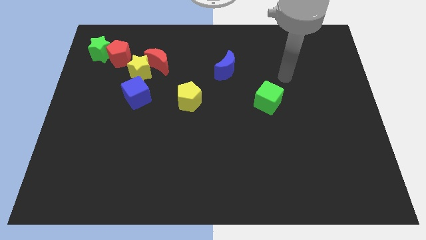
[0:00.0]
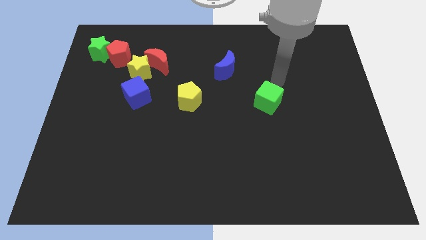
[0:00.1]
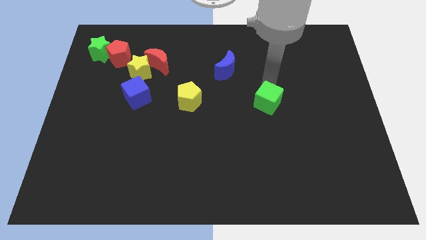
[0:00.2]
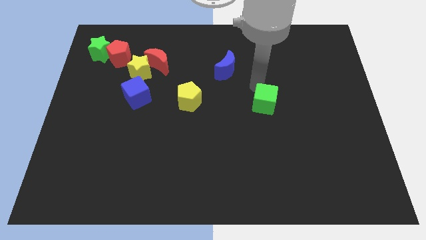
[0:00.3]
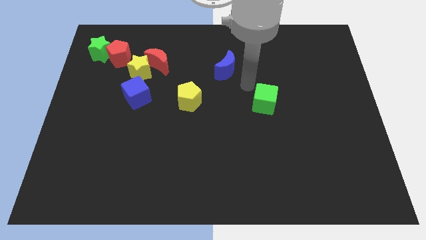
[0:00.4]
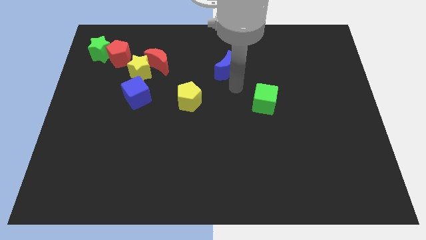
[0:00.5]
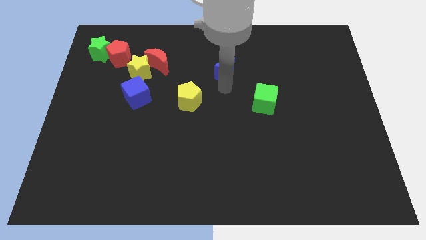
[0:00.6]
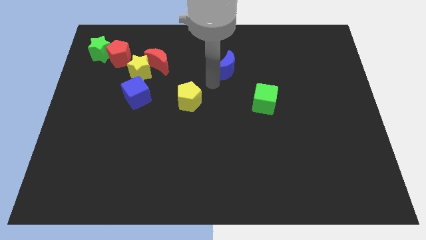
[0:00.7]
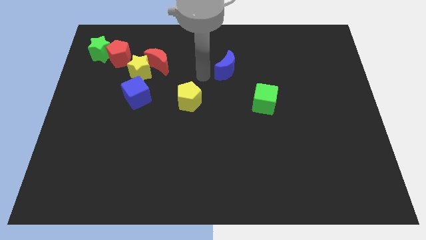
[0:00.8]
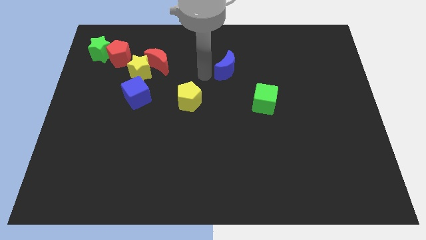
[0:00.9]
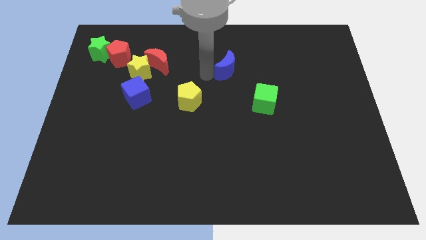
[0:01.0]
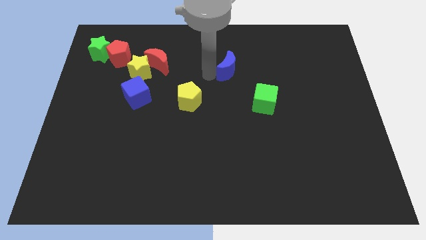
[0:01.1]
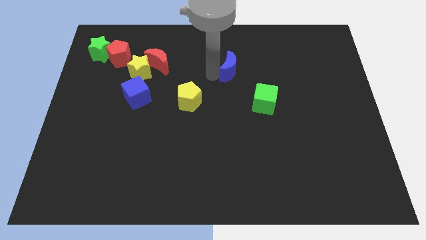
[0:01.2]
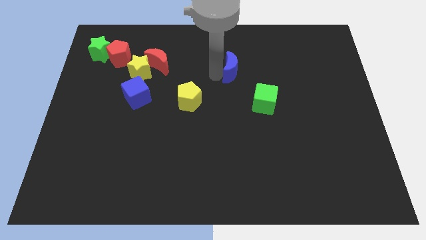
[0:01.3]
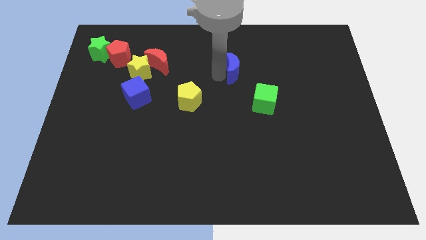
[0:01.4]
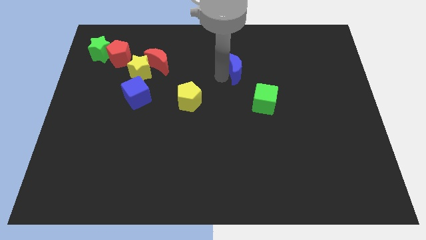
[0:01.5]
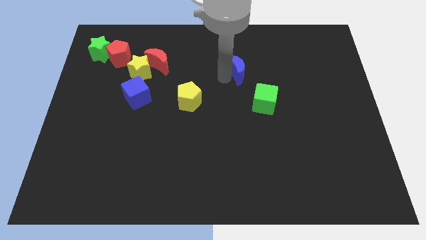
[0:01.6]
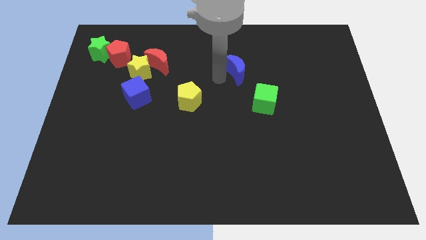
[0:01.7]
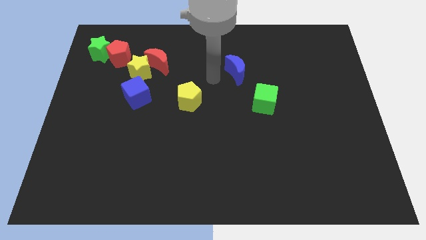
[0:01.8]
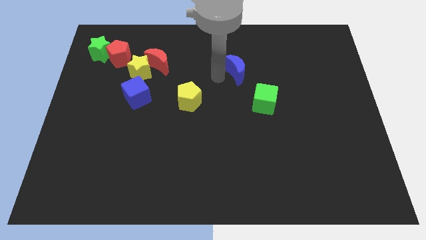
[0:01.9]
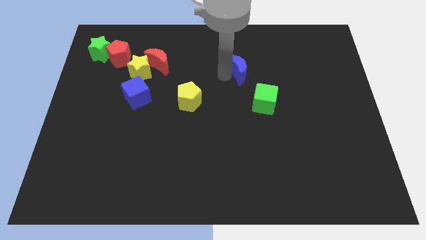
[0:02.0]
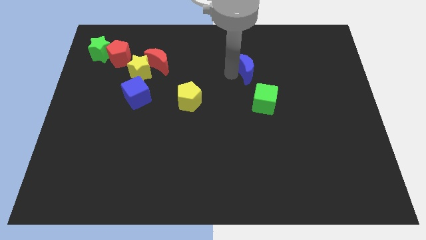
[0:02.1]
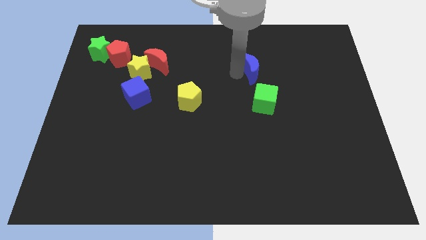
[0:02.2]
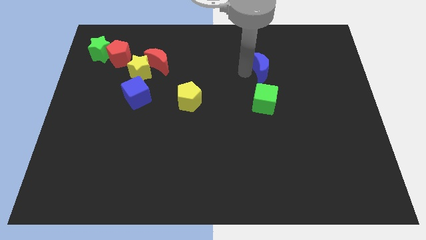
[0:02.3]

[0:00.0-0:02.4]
push the blue moon somewhat right

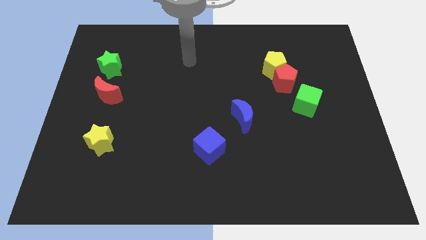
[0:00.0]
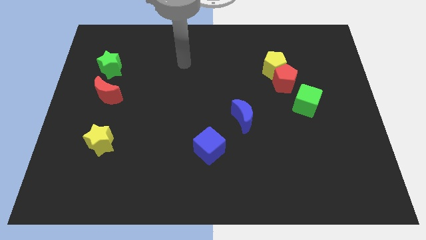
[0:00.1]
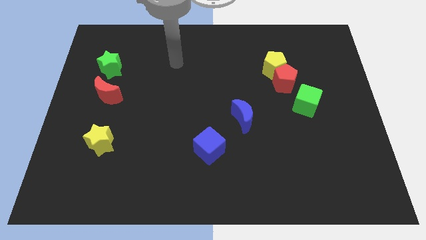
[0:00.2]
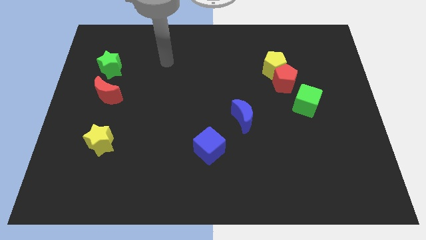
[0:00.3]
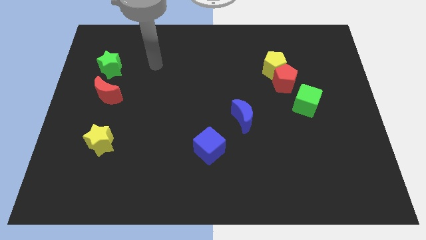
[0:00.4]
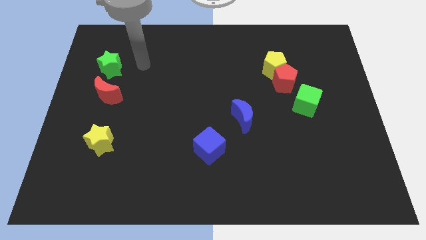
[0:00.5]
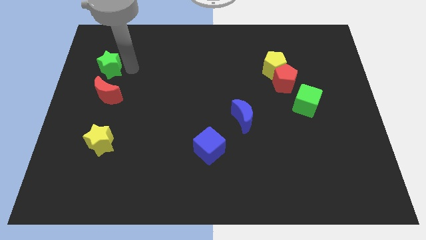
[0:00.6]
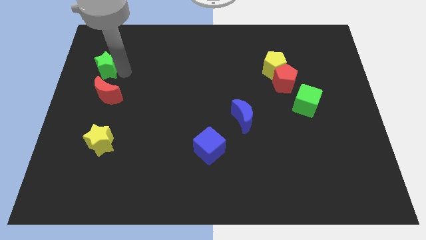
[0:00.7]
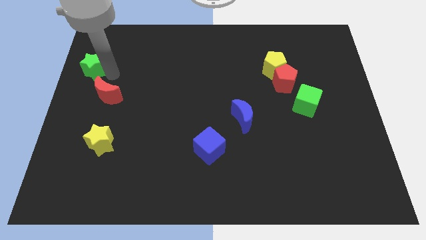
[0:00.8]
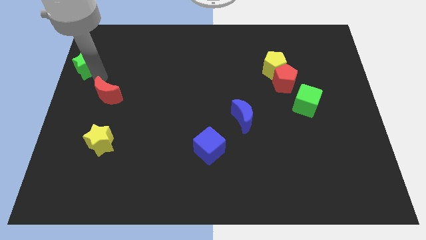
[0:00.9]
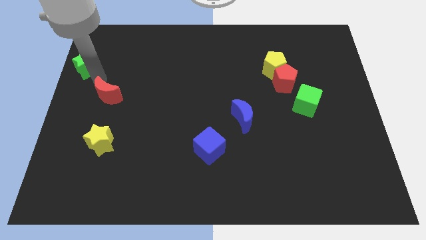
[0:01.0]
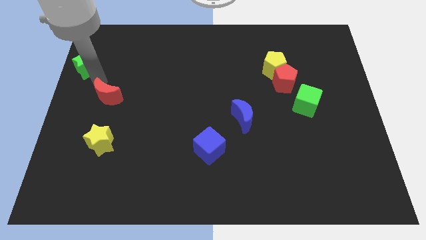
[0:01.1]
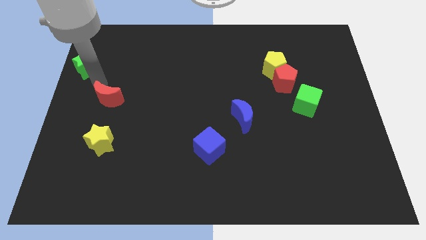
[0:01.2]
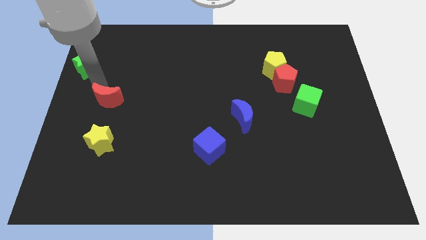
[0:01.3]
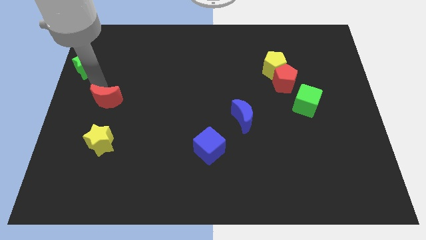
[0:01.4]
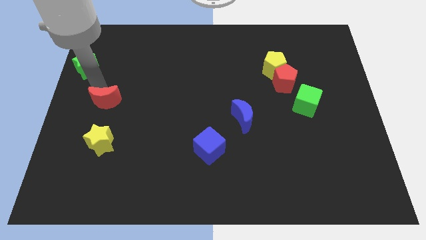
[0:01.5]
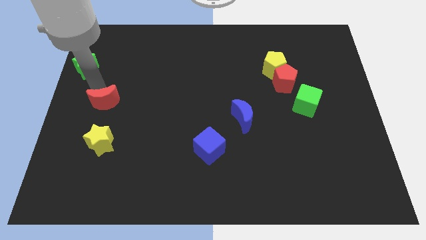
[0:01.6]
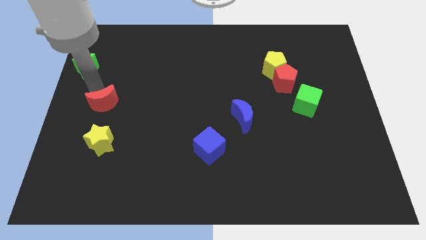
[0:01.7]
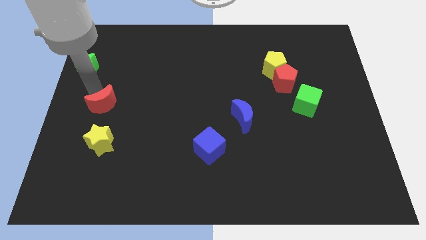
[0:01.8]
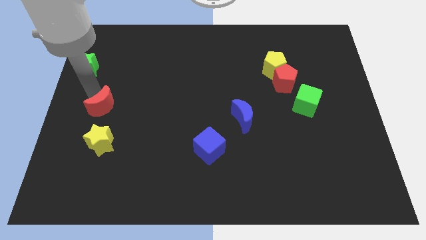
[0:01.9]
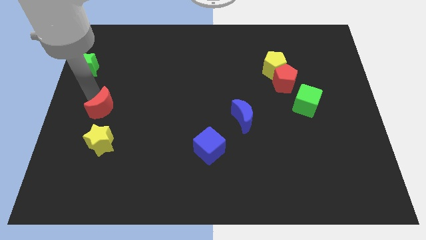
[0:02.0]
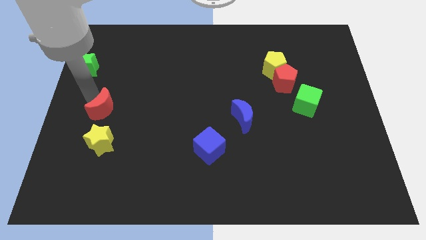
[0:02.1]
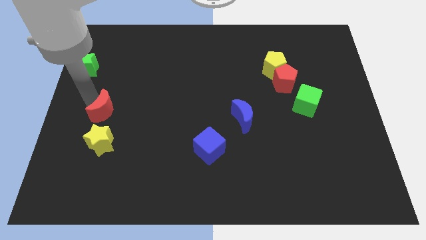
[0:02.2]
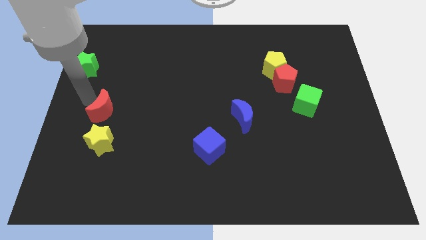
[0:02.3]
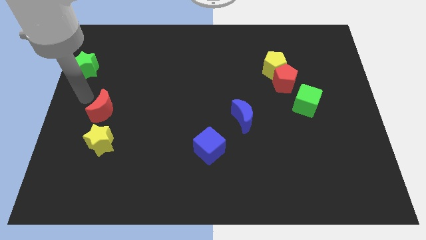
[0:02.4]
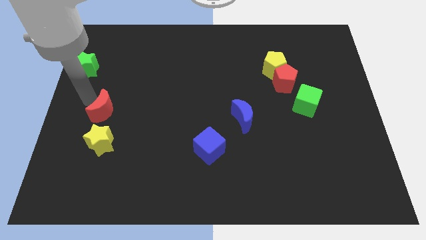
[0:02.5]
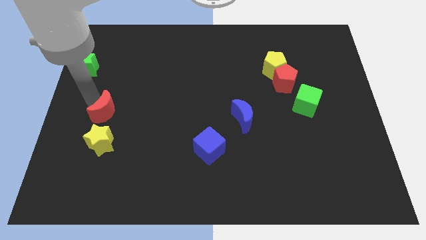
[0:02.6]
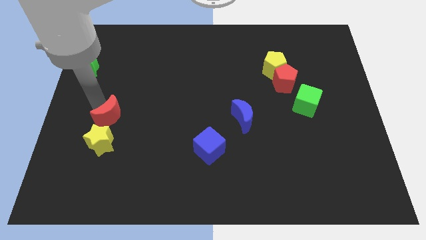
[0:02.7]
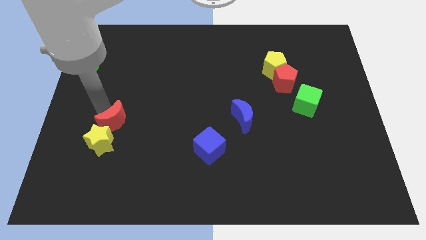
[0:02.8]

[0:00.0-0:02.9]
push the red moon downwards and then right a little bit

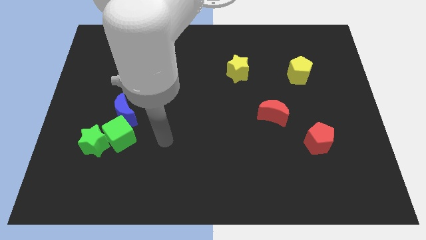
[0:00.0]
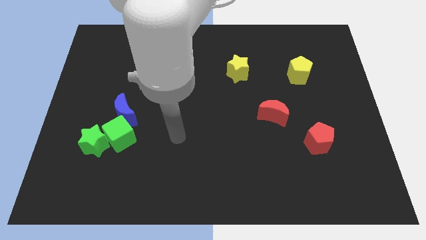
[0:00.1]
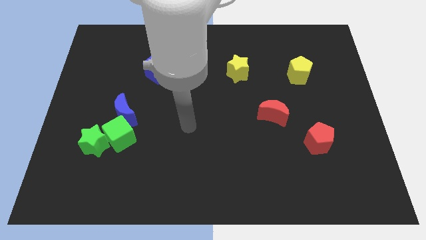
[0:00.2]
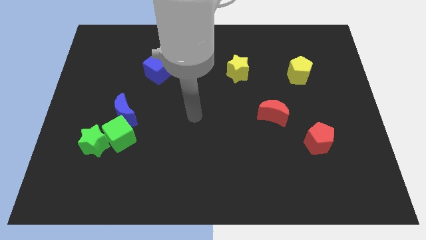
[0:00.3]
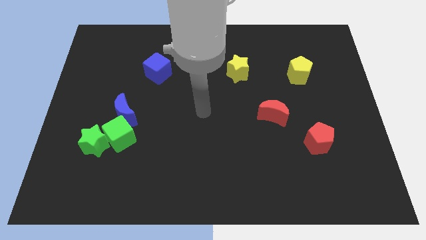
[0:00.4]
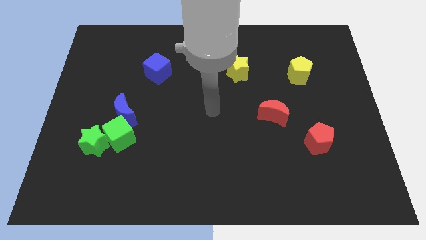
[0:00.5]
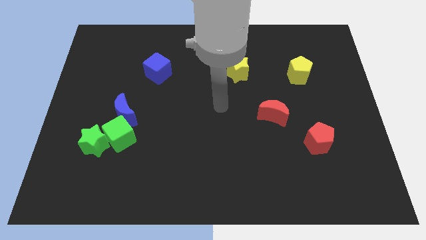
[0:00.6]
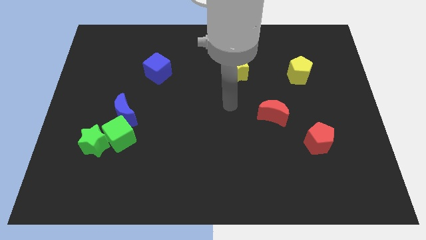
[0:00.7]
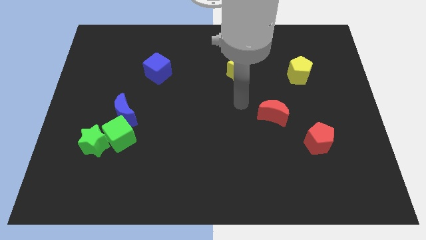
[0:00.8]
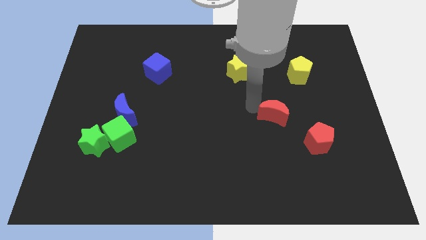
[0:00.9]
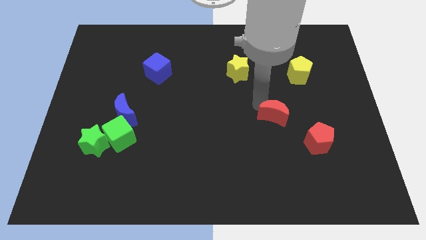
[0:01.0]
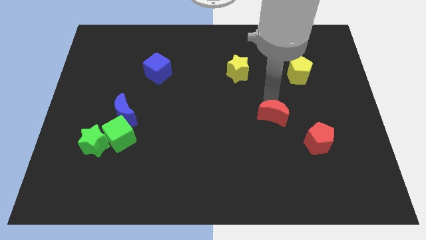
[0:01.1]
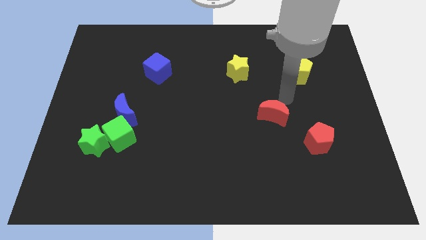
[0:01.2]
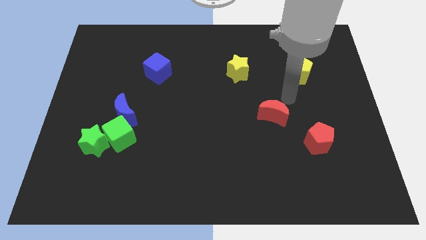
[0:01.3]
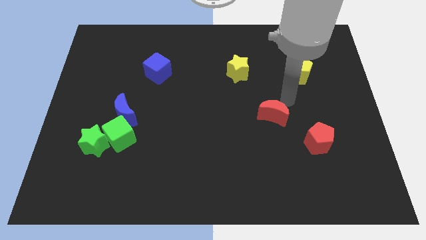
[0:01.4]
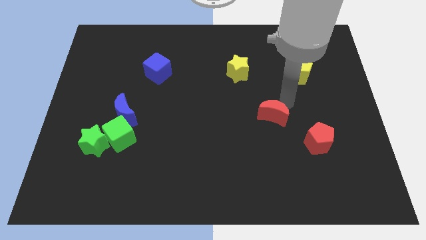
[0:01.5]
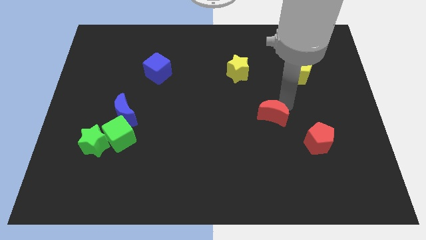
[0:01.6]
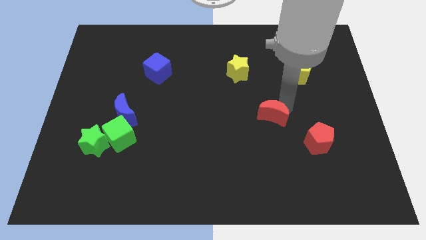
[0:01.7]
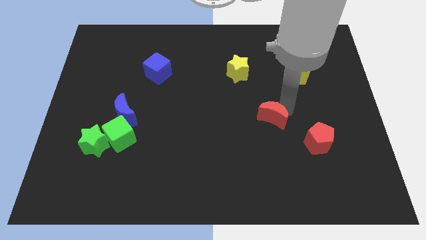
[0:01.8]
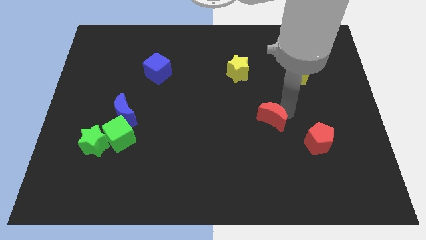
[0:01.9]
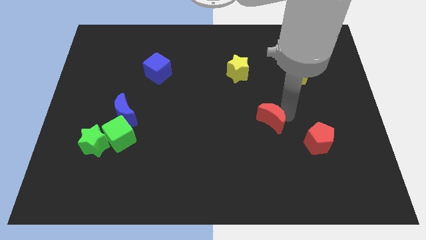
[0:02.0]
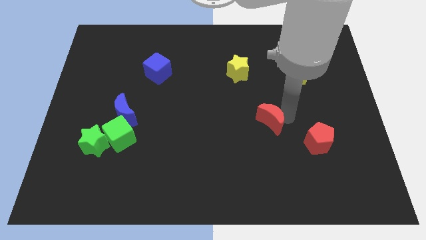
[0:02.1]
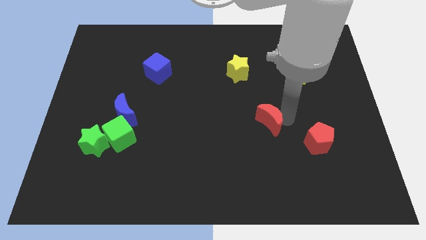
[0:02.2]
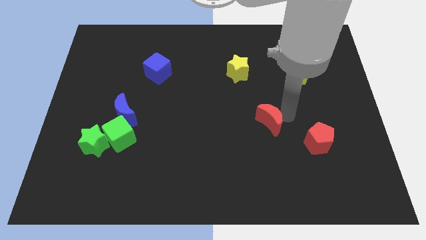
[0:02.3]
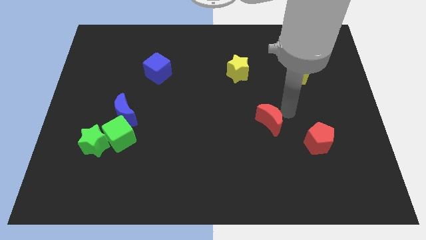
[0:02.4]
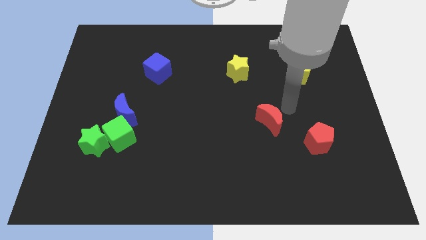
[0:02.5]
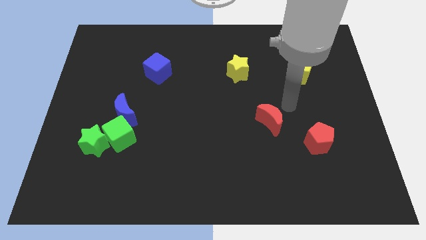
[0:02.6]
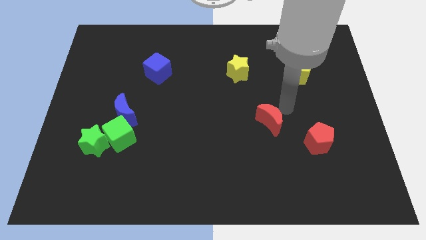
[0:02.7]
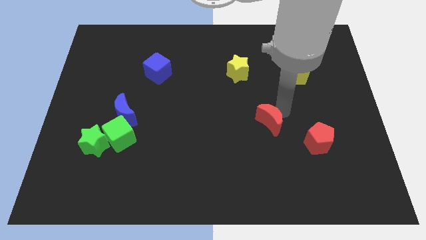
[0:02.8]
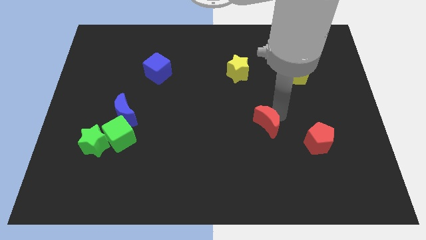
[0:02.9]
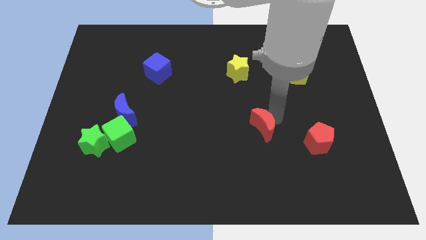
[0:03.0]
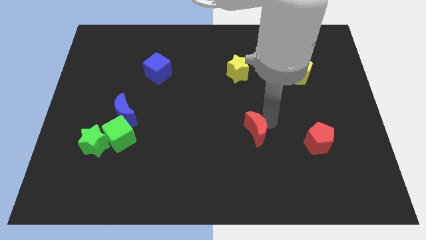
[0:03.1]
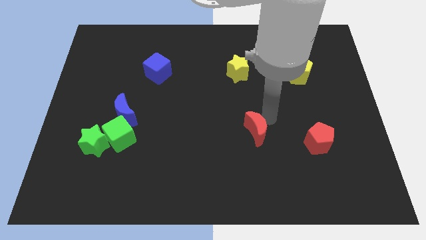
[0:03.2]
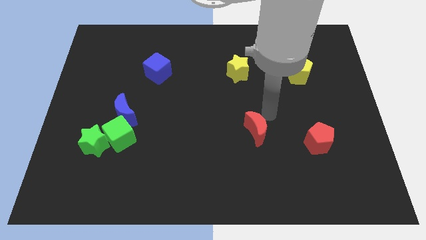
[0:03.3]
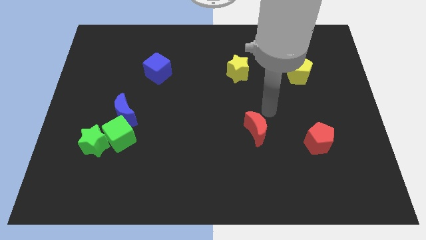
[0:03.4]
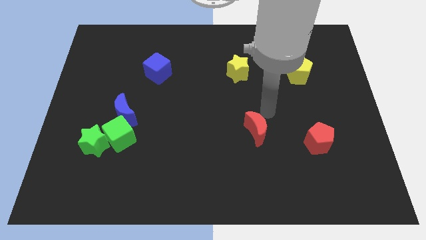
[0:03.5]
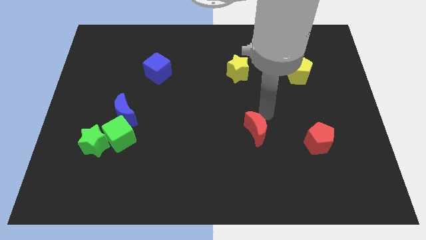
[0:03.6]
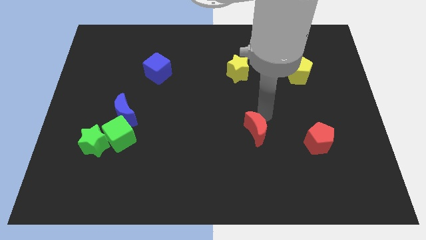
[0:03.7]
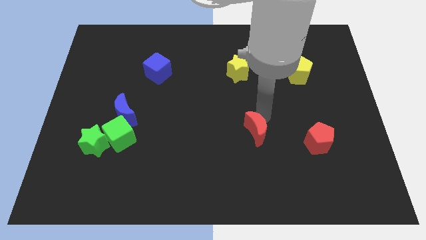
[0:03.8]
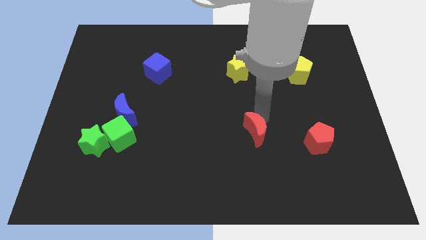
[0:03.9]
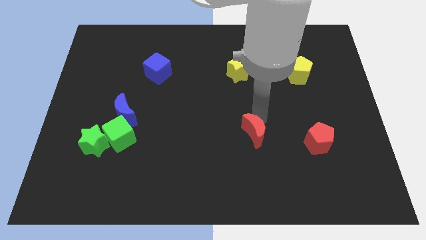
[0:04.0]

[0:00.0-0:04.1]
slightly push the red moon down and to the left
